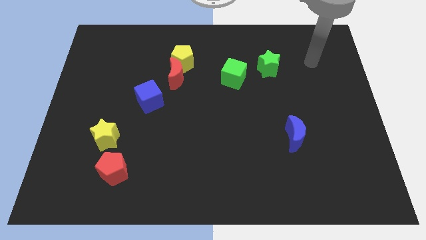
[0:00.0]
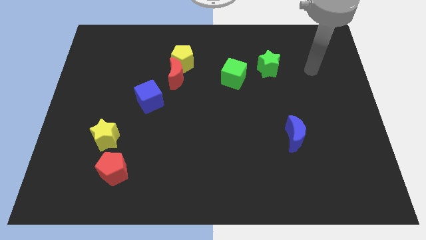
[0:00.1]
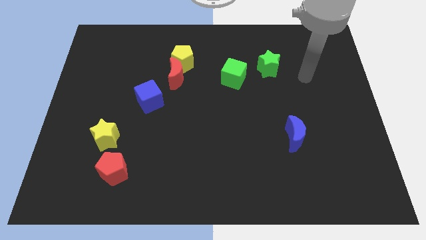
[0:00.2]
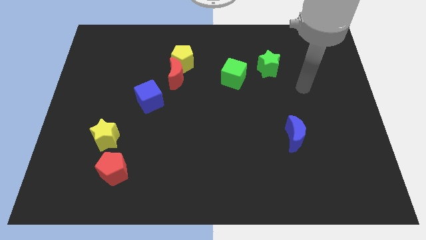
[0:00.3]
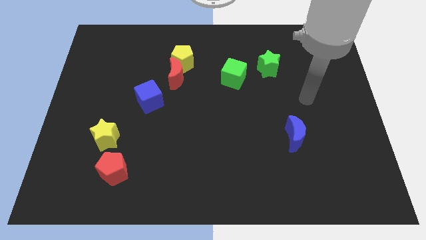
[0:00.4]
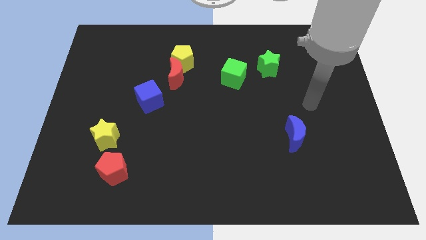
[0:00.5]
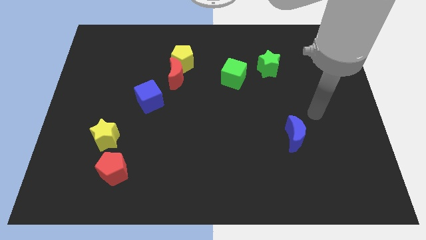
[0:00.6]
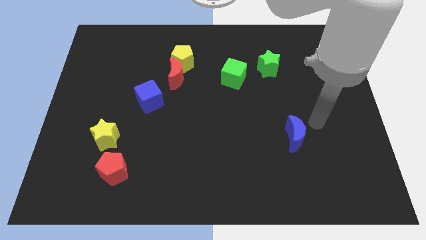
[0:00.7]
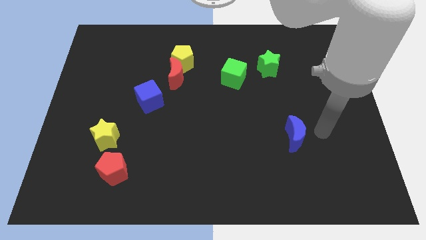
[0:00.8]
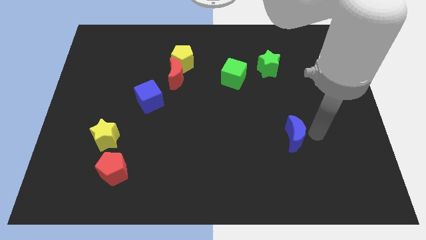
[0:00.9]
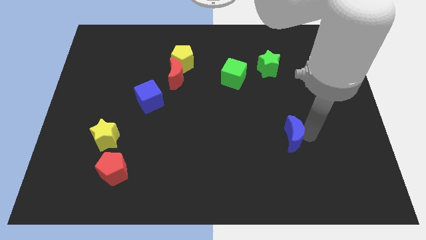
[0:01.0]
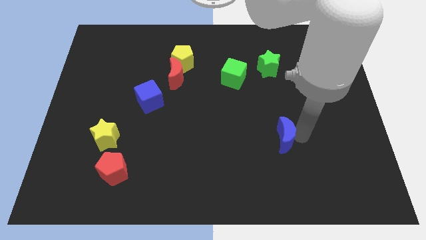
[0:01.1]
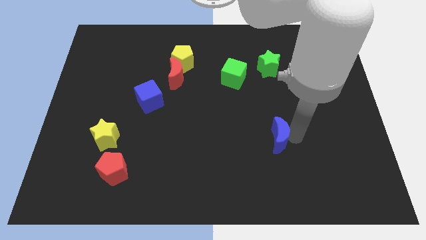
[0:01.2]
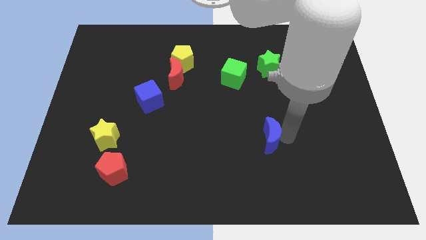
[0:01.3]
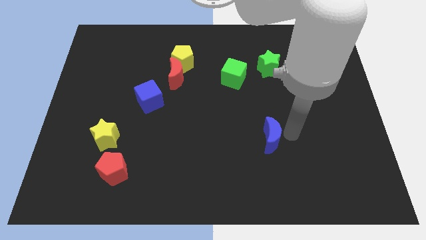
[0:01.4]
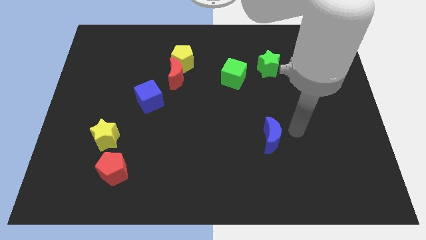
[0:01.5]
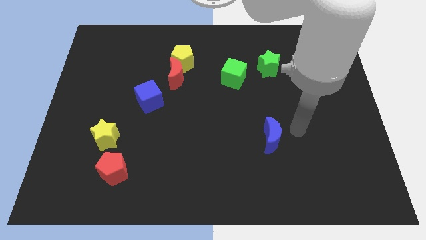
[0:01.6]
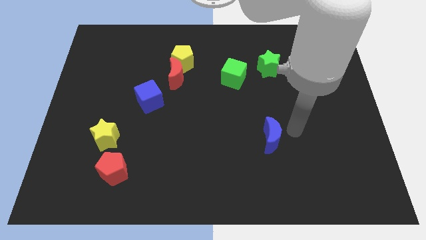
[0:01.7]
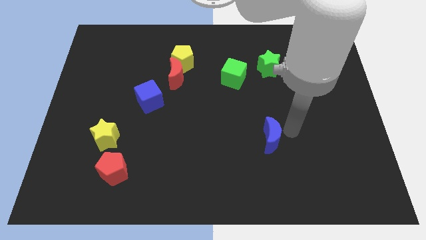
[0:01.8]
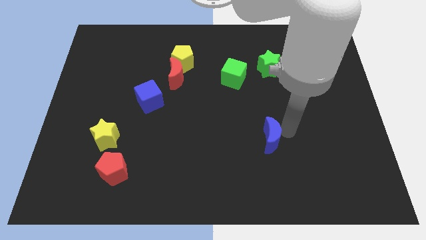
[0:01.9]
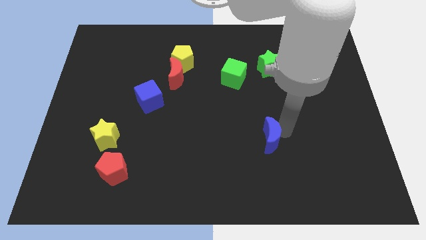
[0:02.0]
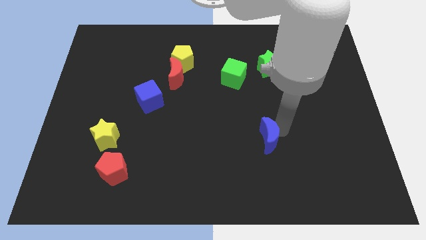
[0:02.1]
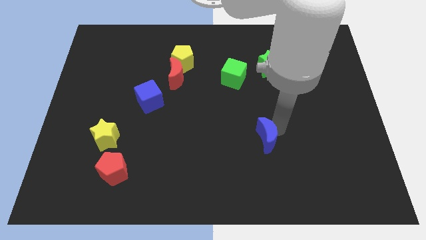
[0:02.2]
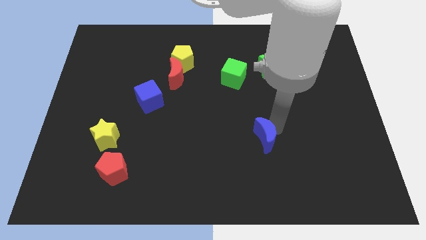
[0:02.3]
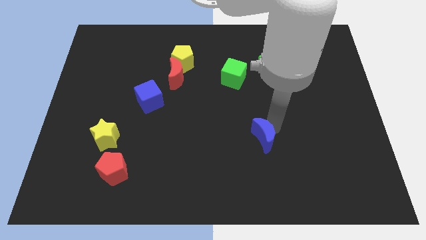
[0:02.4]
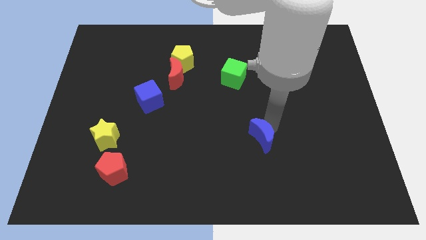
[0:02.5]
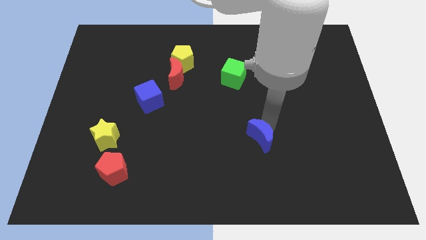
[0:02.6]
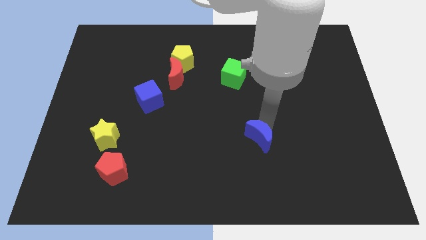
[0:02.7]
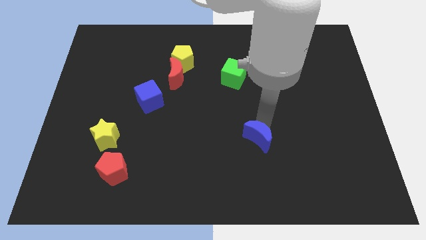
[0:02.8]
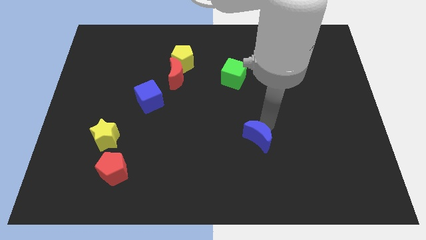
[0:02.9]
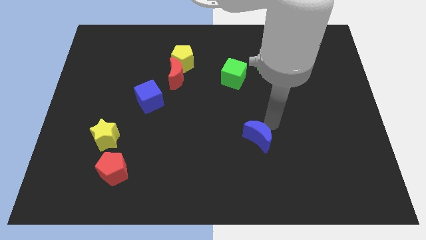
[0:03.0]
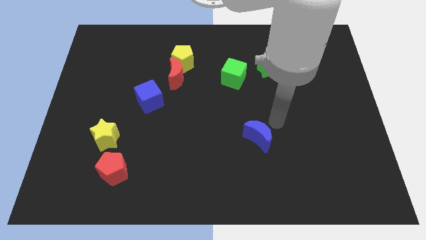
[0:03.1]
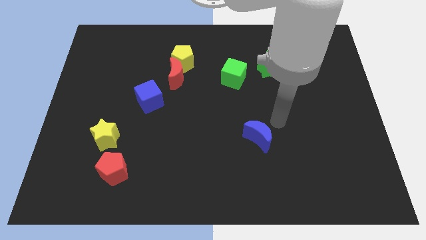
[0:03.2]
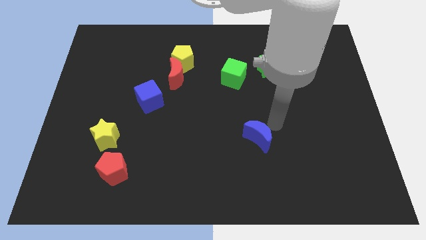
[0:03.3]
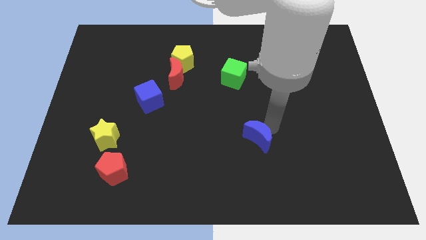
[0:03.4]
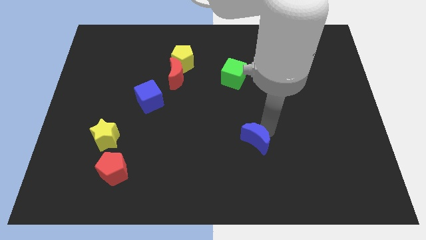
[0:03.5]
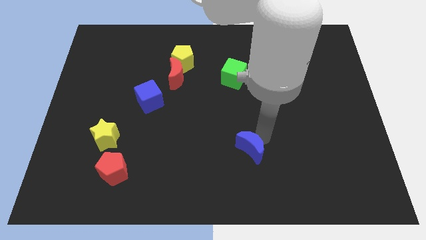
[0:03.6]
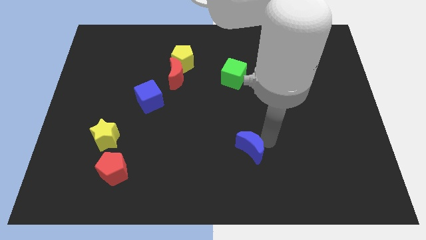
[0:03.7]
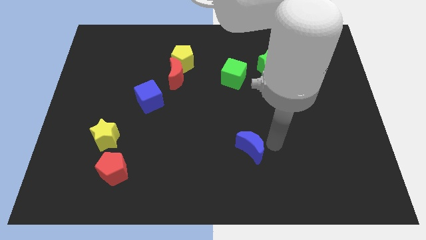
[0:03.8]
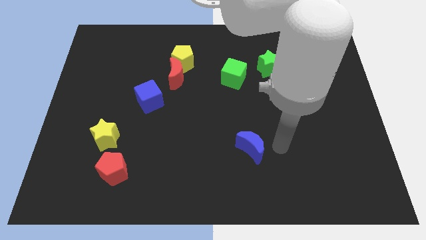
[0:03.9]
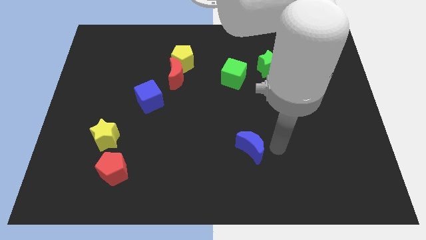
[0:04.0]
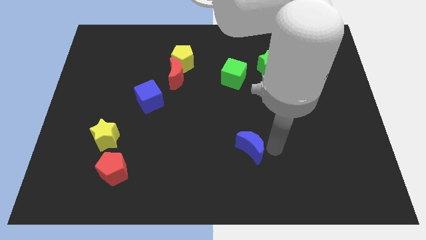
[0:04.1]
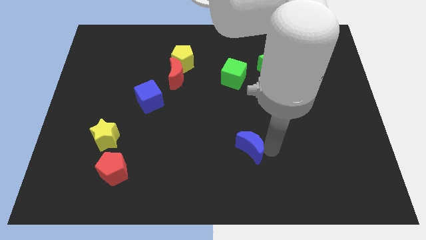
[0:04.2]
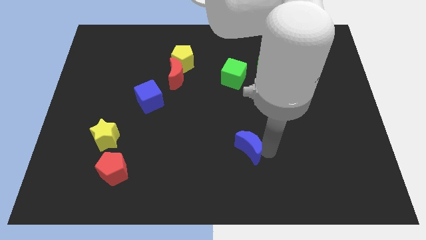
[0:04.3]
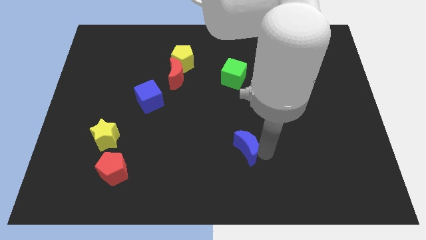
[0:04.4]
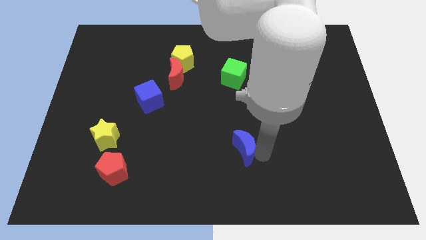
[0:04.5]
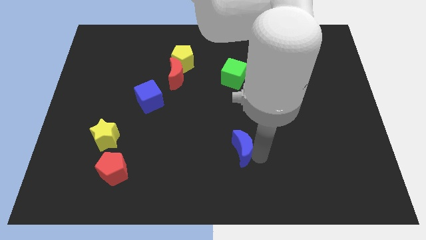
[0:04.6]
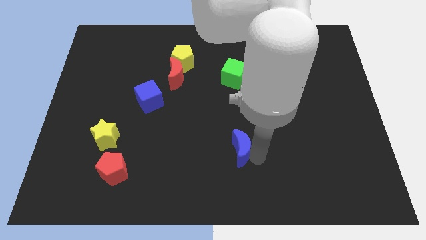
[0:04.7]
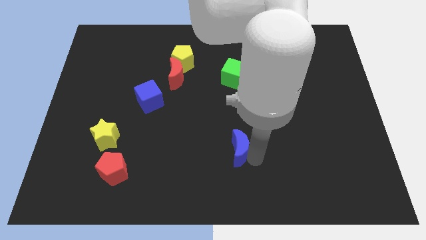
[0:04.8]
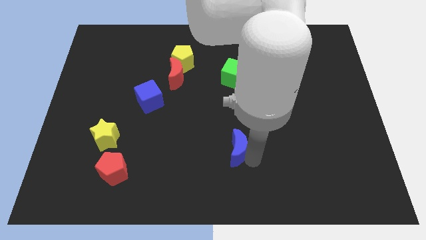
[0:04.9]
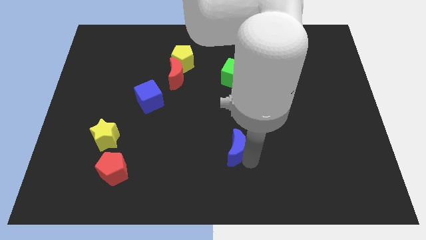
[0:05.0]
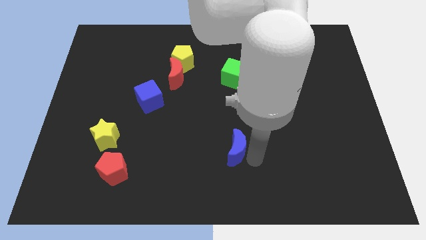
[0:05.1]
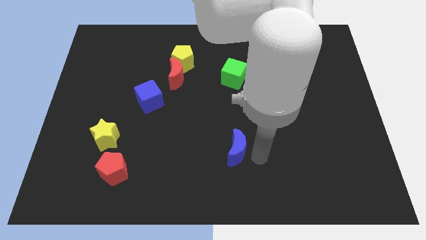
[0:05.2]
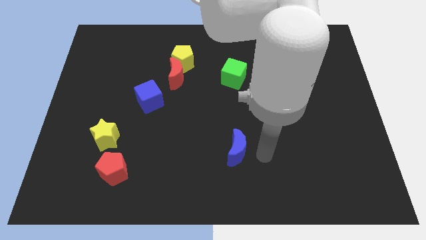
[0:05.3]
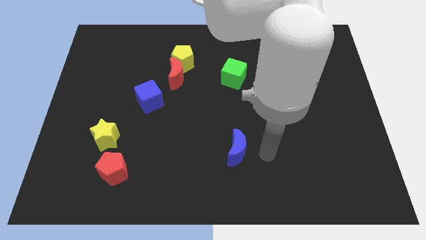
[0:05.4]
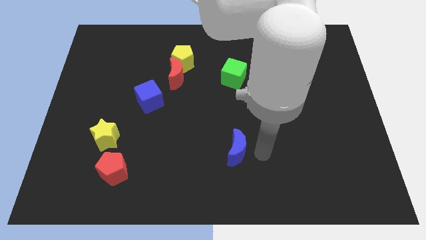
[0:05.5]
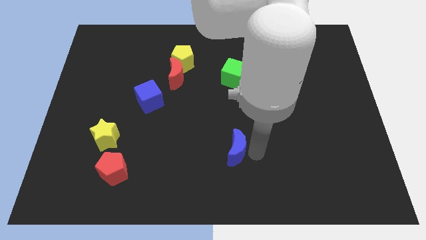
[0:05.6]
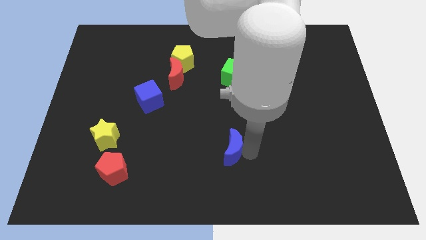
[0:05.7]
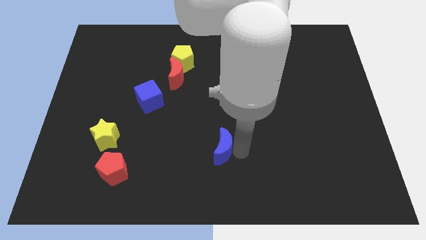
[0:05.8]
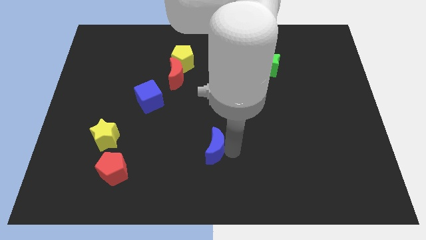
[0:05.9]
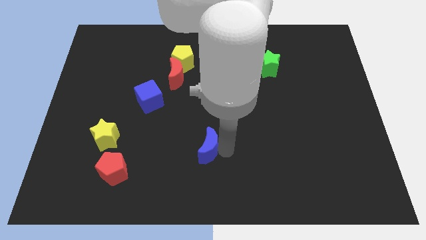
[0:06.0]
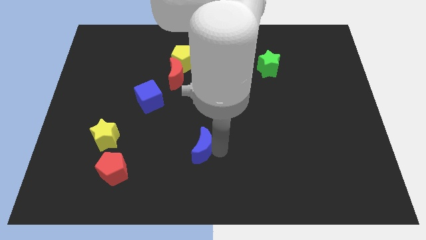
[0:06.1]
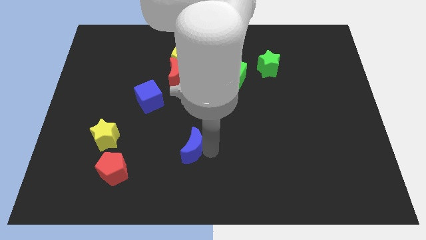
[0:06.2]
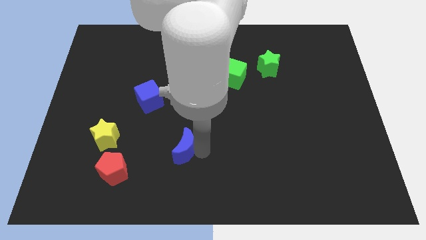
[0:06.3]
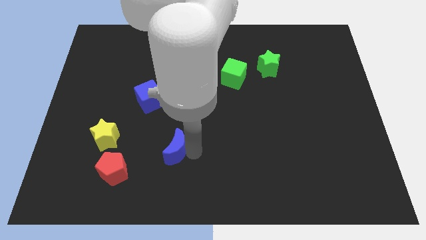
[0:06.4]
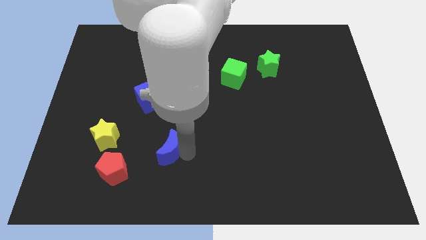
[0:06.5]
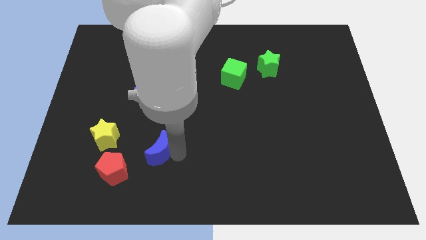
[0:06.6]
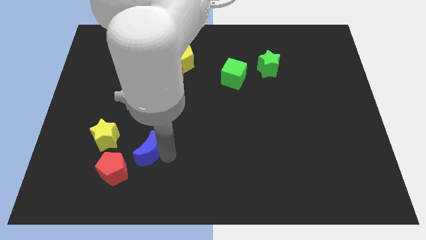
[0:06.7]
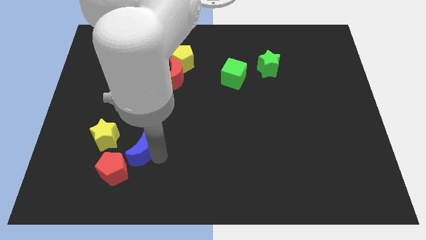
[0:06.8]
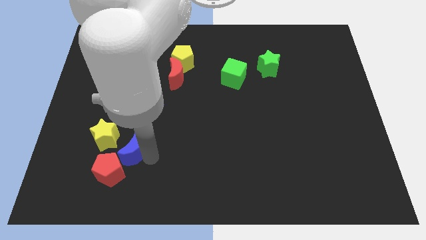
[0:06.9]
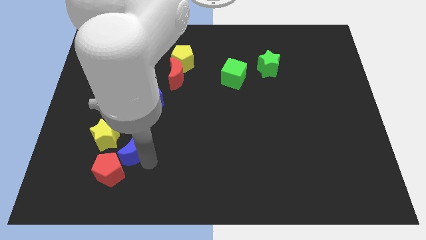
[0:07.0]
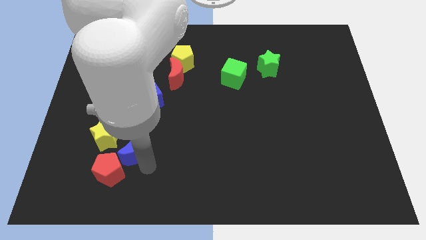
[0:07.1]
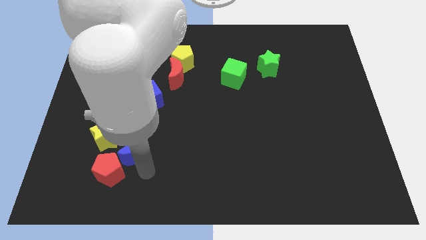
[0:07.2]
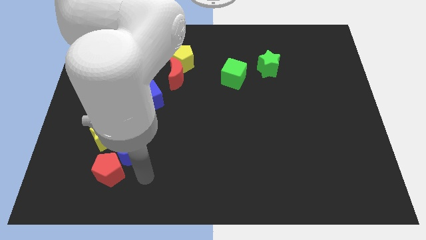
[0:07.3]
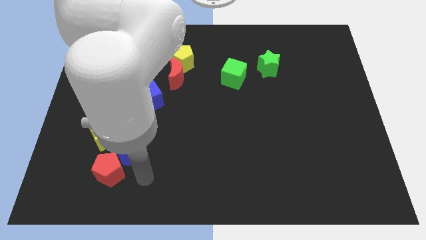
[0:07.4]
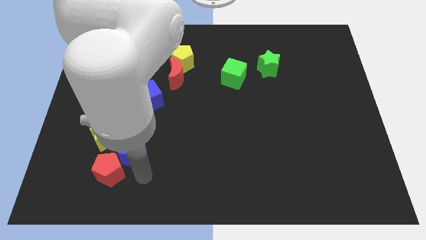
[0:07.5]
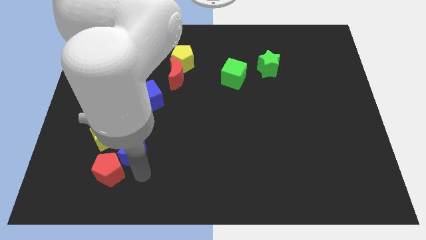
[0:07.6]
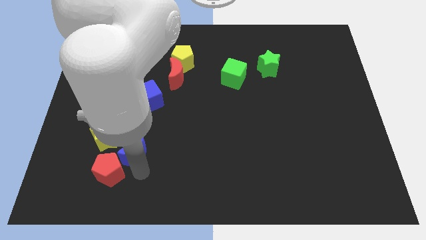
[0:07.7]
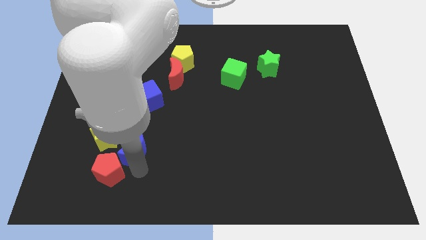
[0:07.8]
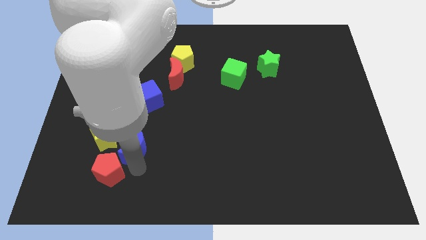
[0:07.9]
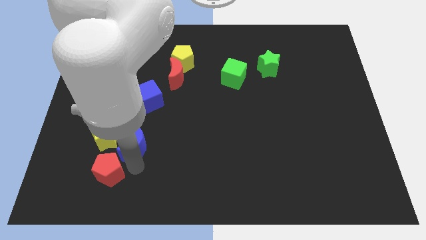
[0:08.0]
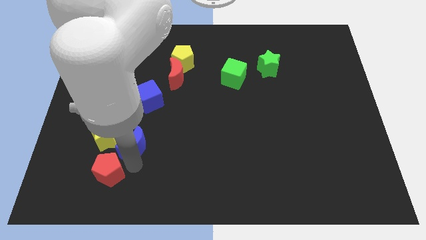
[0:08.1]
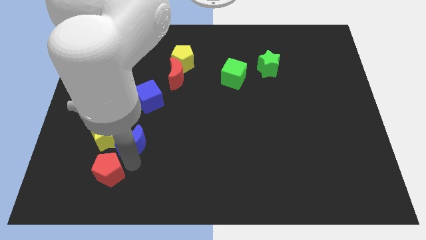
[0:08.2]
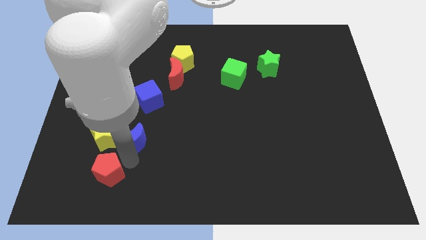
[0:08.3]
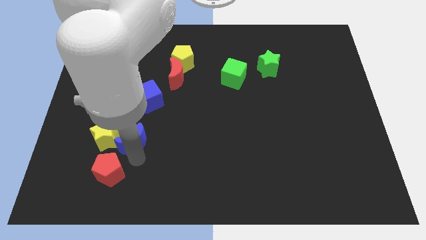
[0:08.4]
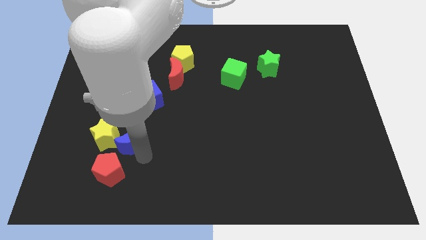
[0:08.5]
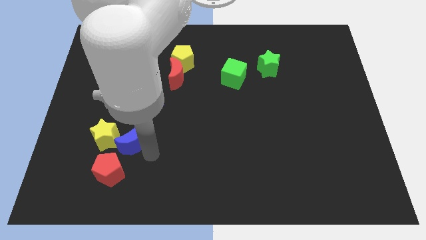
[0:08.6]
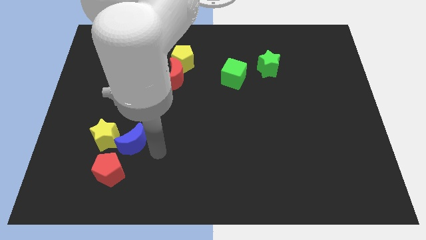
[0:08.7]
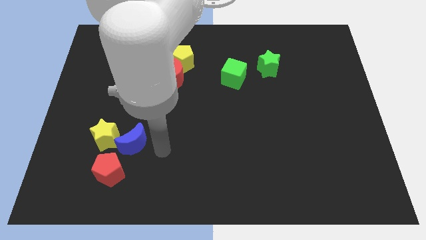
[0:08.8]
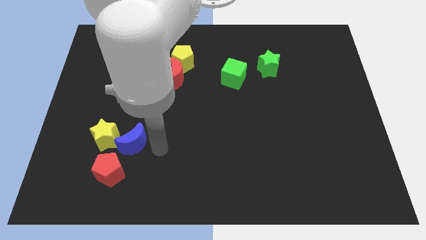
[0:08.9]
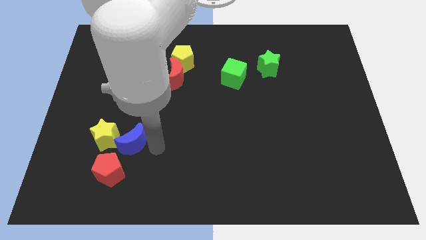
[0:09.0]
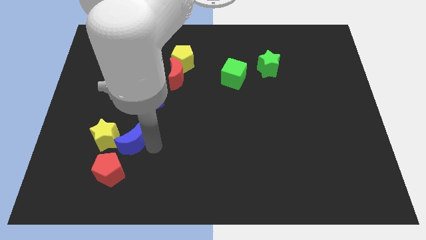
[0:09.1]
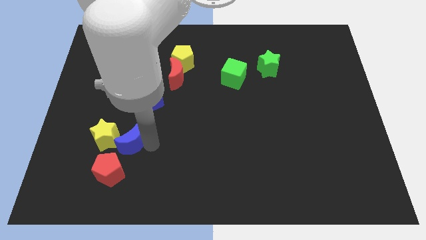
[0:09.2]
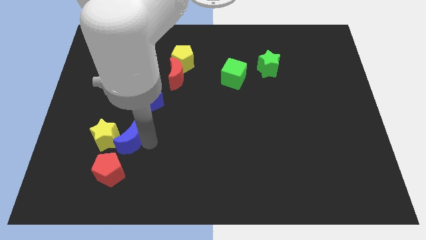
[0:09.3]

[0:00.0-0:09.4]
move the blue moon close to the yellow star
